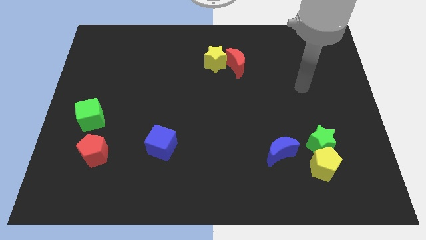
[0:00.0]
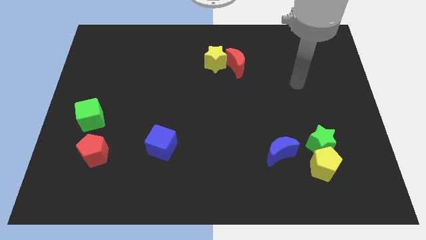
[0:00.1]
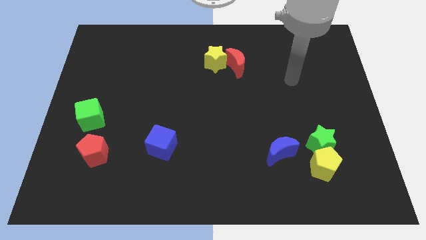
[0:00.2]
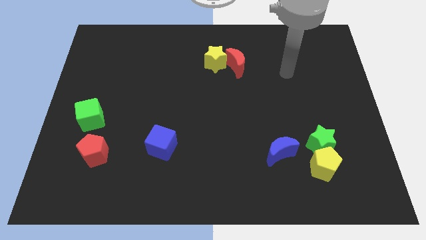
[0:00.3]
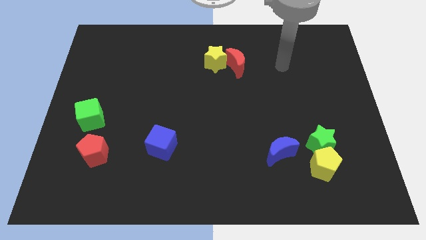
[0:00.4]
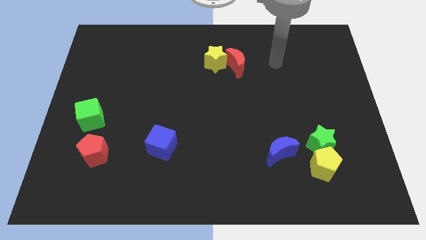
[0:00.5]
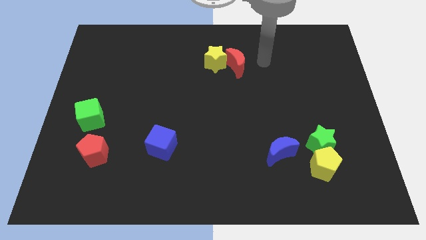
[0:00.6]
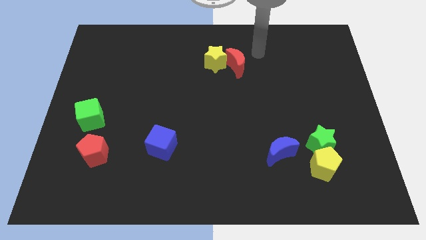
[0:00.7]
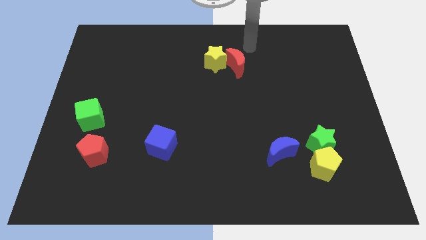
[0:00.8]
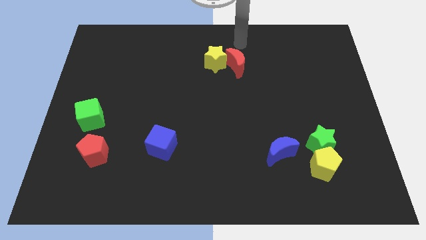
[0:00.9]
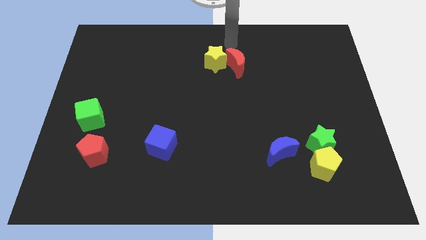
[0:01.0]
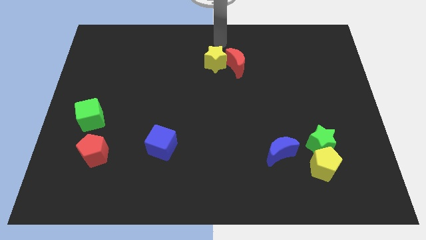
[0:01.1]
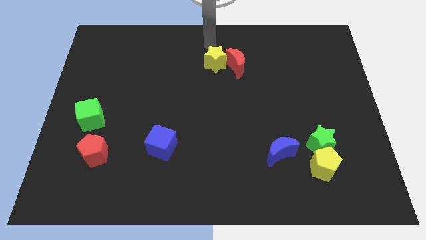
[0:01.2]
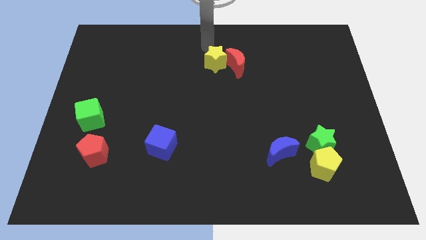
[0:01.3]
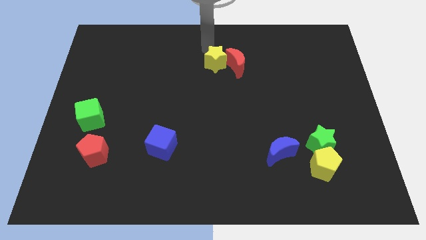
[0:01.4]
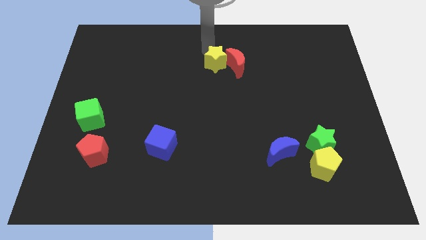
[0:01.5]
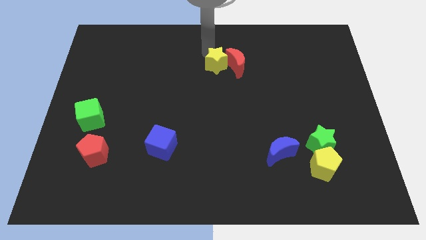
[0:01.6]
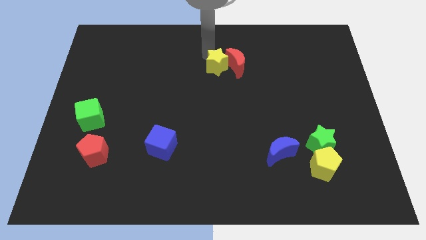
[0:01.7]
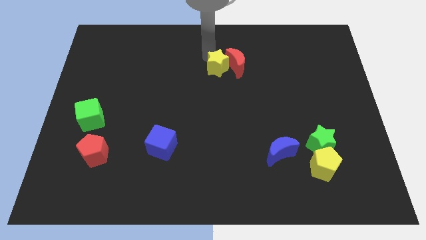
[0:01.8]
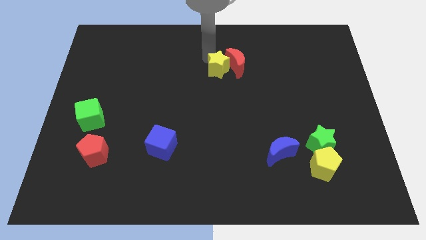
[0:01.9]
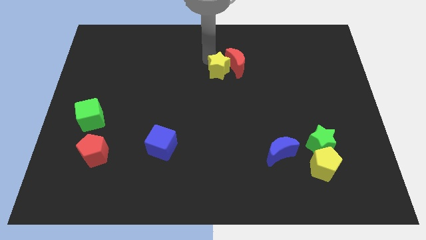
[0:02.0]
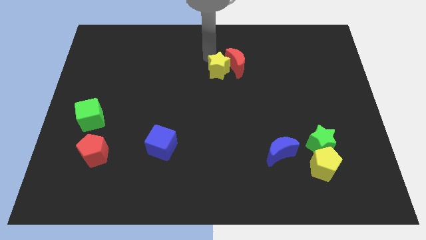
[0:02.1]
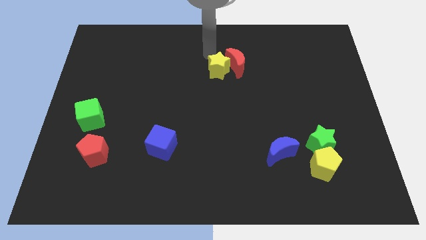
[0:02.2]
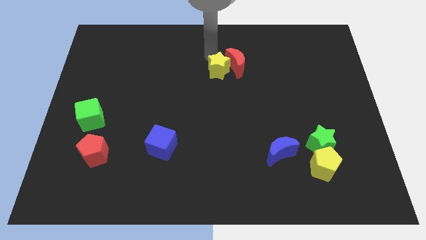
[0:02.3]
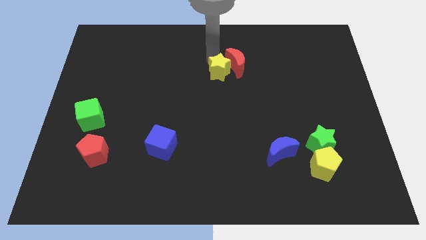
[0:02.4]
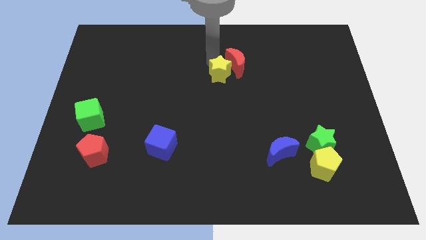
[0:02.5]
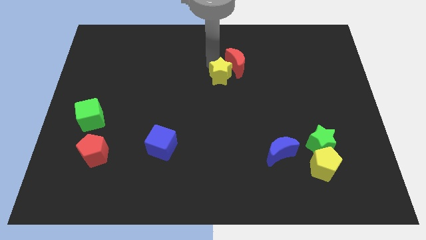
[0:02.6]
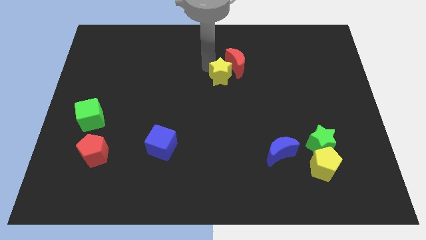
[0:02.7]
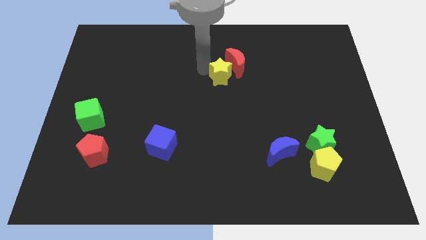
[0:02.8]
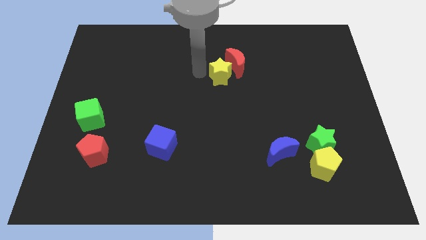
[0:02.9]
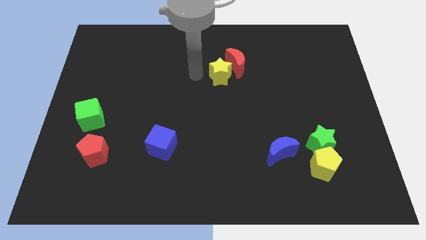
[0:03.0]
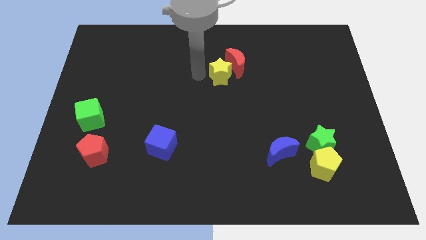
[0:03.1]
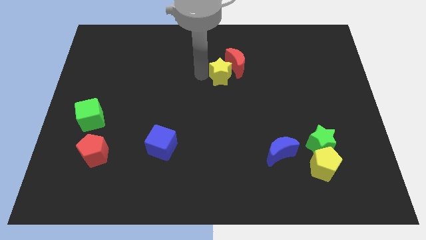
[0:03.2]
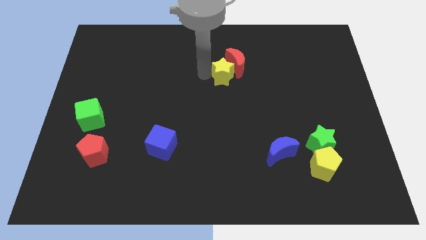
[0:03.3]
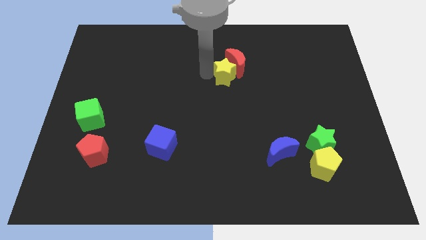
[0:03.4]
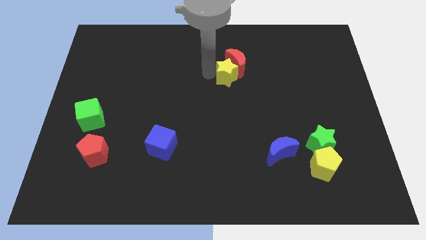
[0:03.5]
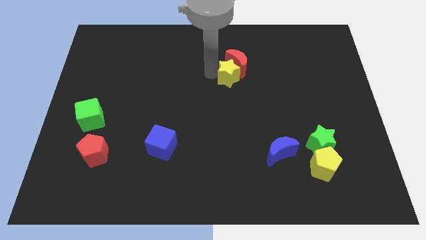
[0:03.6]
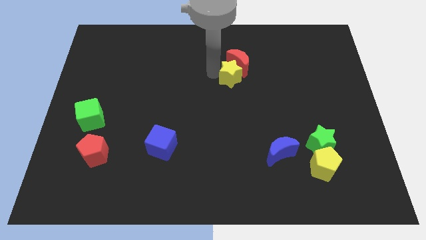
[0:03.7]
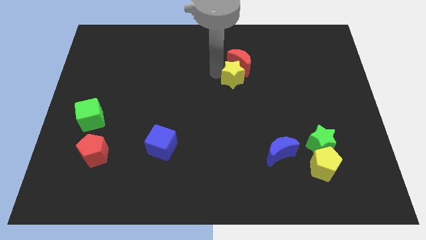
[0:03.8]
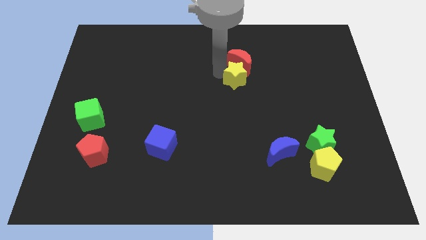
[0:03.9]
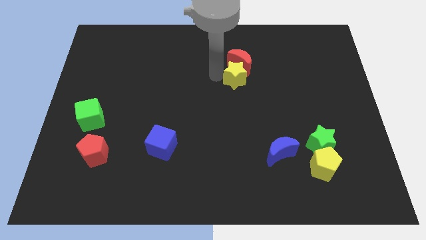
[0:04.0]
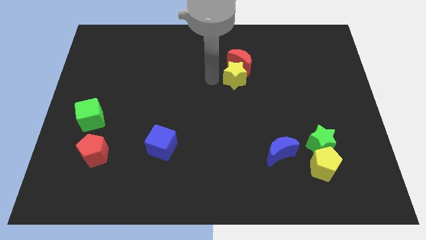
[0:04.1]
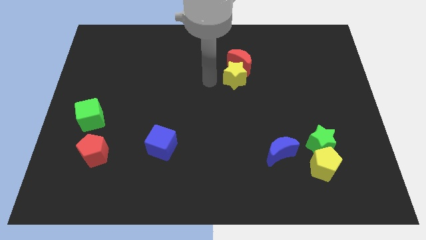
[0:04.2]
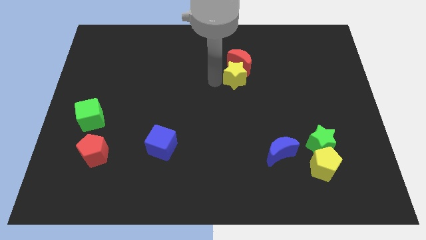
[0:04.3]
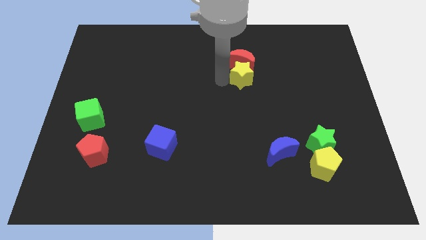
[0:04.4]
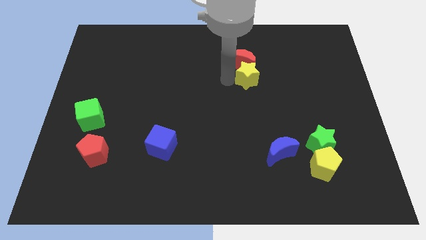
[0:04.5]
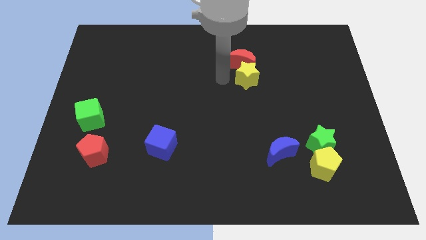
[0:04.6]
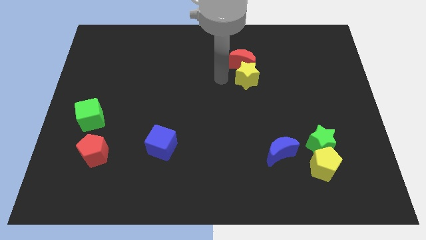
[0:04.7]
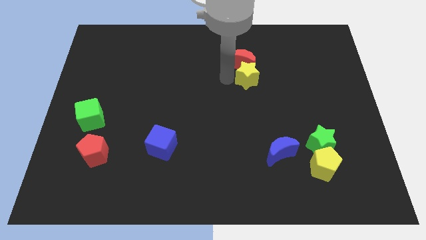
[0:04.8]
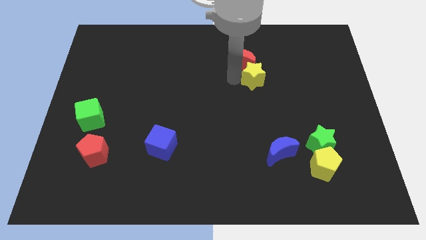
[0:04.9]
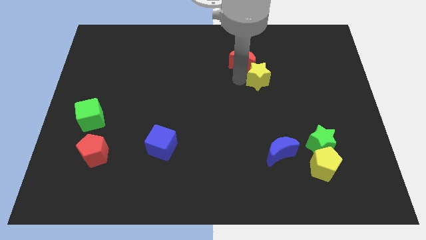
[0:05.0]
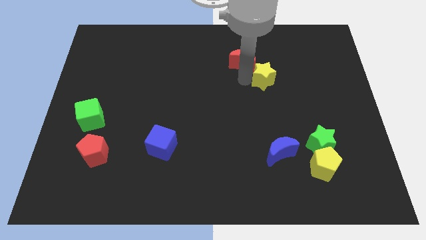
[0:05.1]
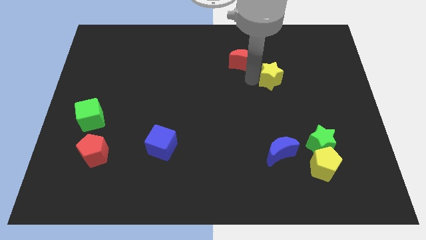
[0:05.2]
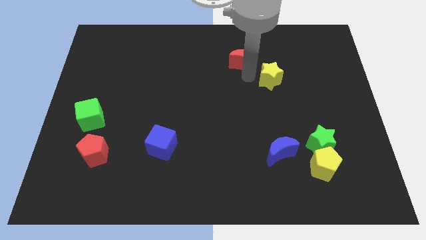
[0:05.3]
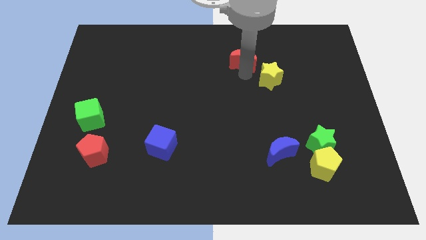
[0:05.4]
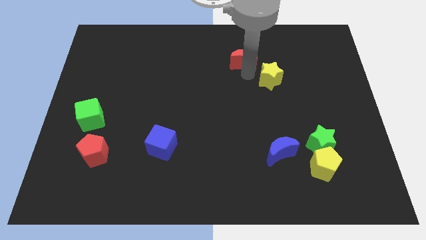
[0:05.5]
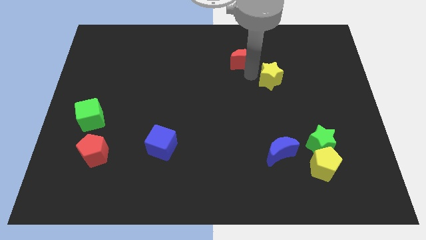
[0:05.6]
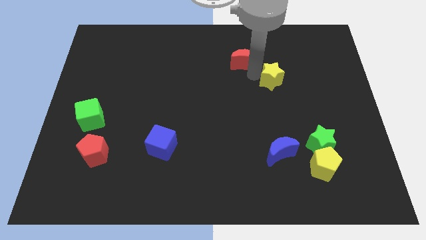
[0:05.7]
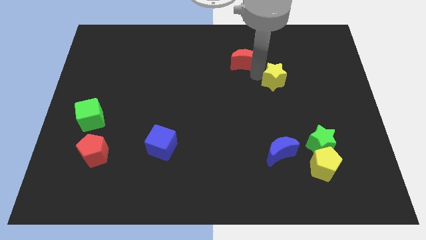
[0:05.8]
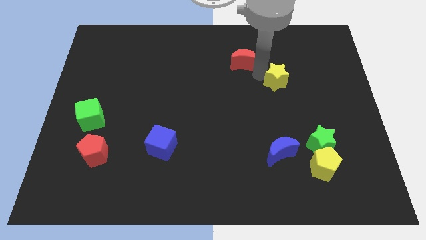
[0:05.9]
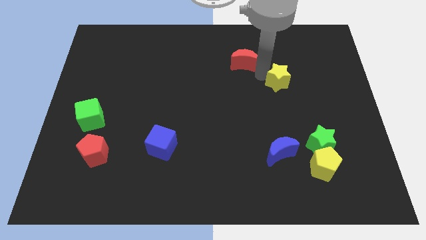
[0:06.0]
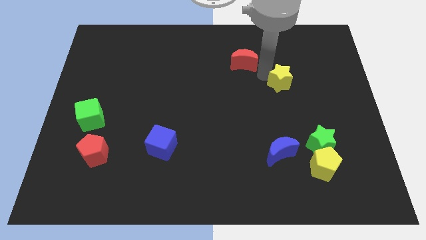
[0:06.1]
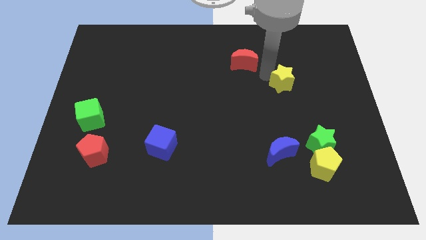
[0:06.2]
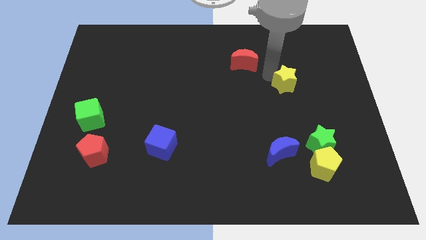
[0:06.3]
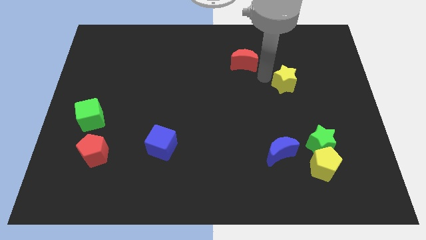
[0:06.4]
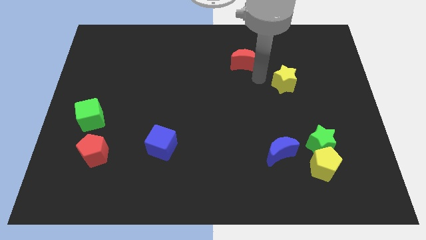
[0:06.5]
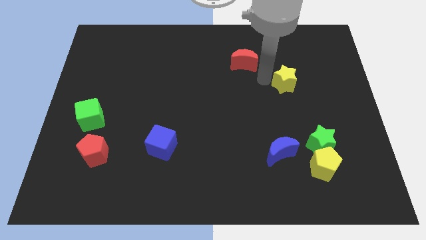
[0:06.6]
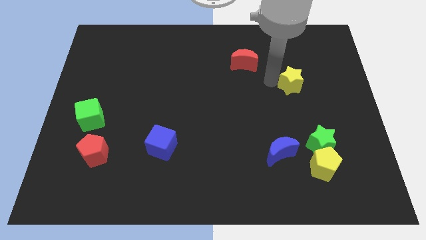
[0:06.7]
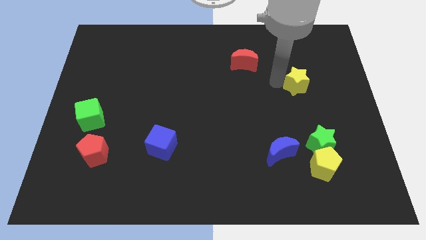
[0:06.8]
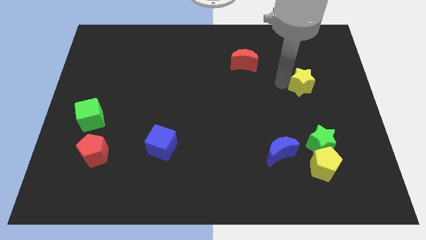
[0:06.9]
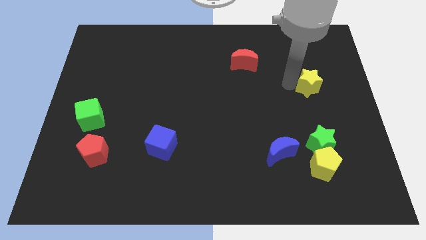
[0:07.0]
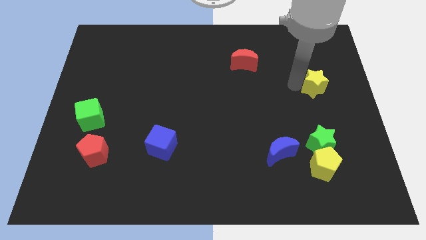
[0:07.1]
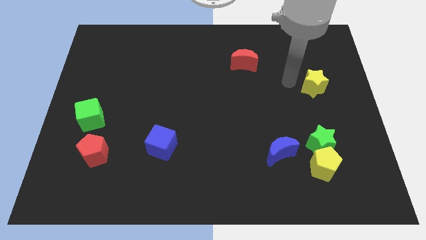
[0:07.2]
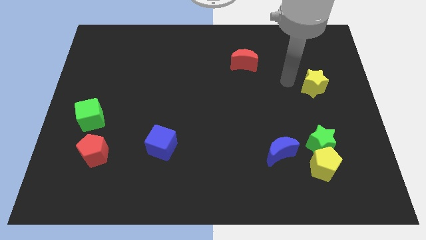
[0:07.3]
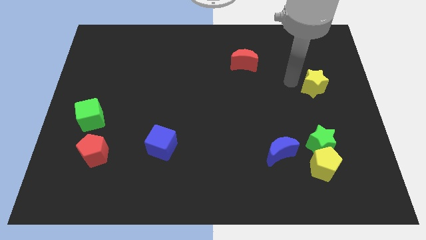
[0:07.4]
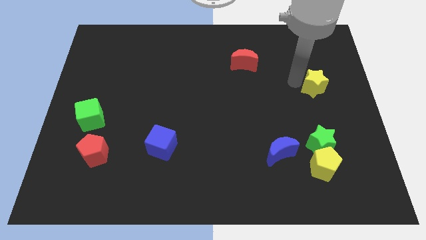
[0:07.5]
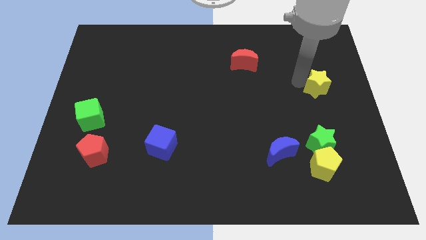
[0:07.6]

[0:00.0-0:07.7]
push the yellow star to the right side
